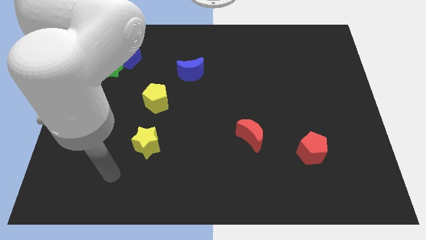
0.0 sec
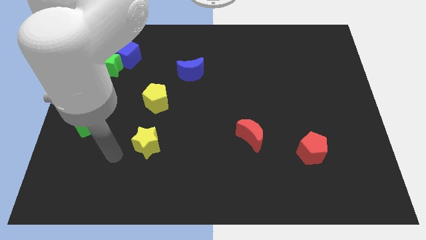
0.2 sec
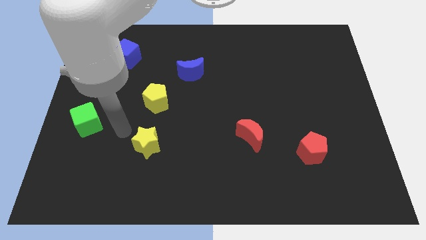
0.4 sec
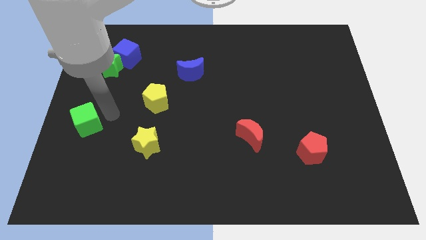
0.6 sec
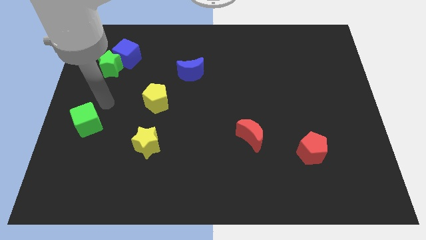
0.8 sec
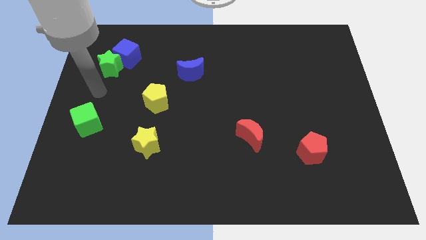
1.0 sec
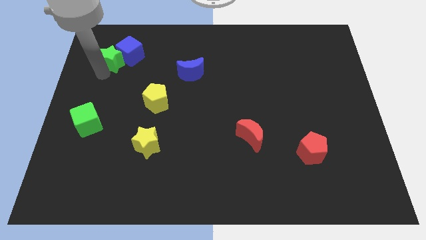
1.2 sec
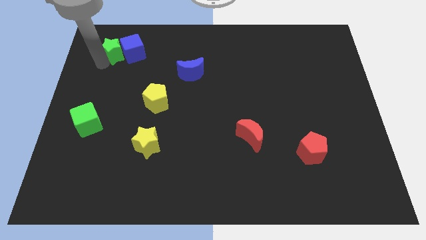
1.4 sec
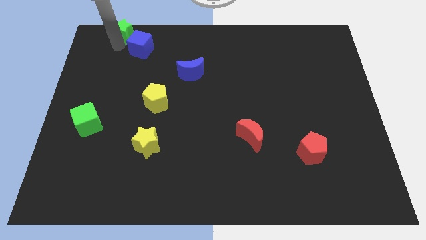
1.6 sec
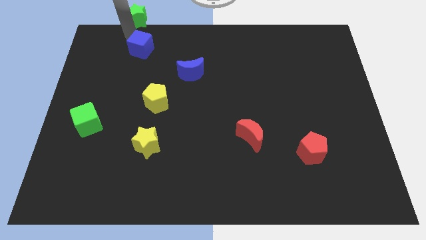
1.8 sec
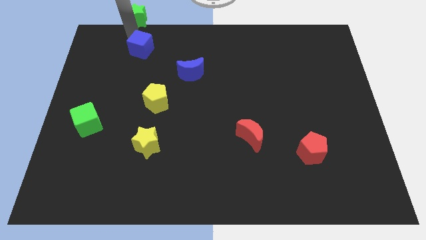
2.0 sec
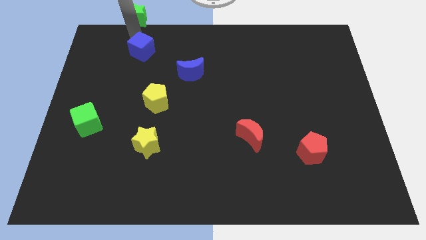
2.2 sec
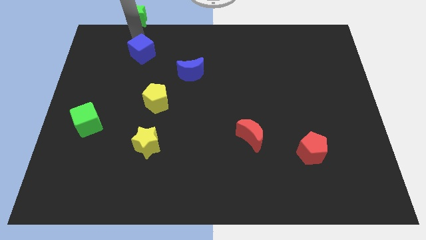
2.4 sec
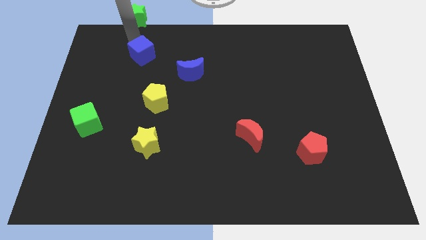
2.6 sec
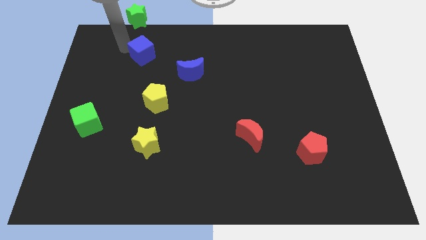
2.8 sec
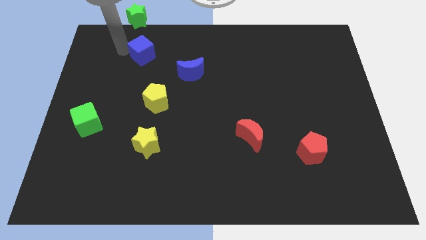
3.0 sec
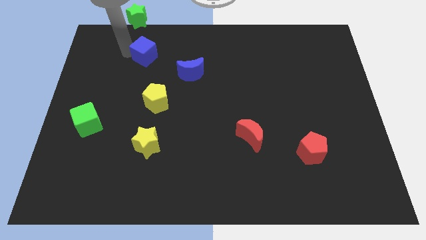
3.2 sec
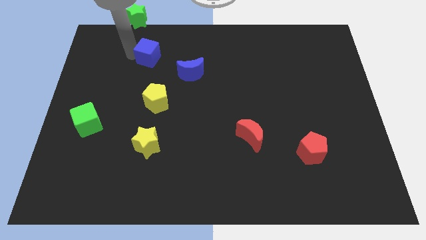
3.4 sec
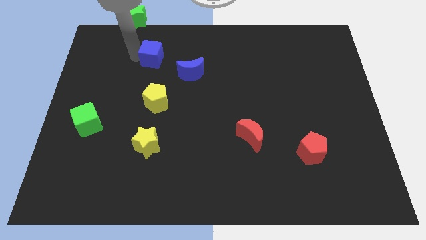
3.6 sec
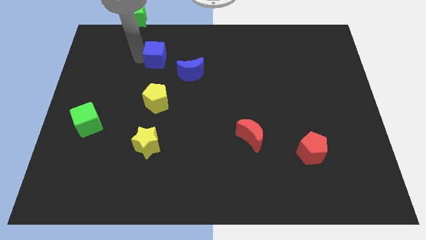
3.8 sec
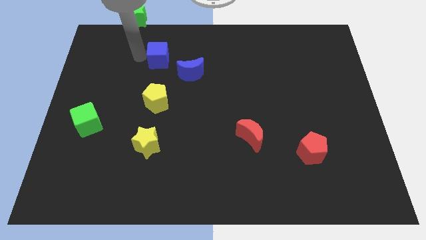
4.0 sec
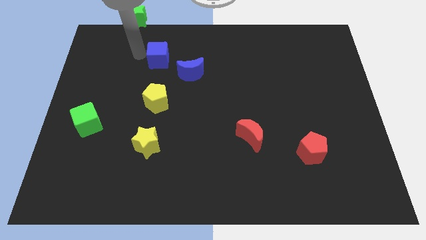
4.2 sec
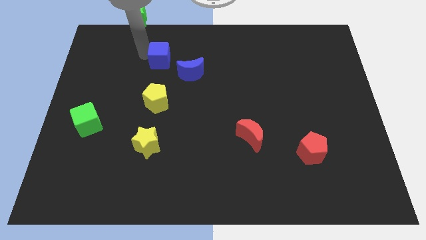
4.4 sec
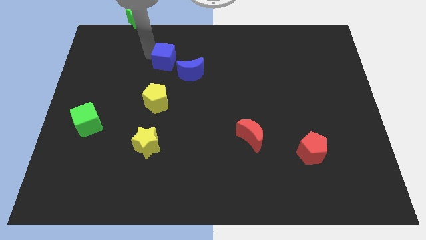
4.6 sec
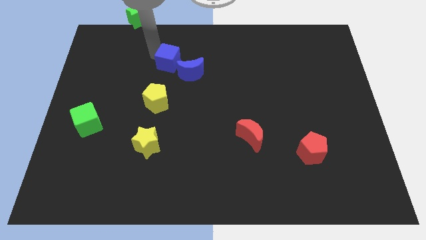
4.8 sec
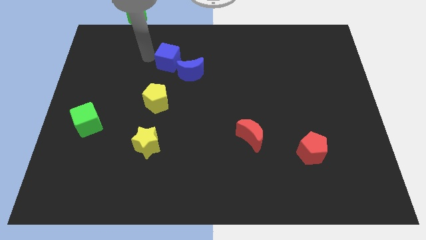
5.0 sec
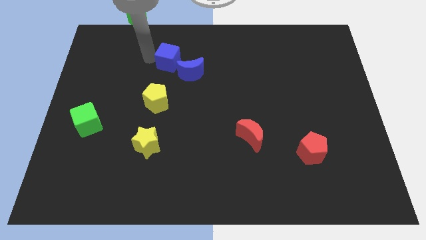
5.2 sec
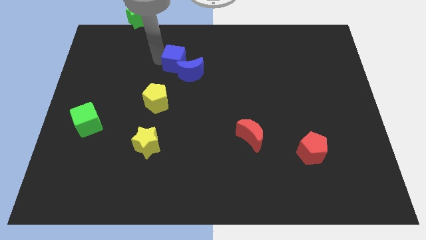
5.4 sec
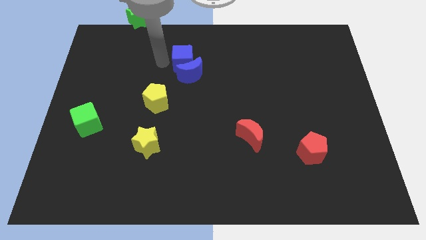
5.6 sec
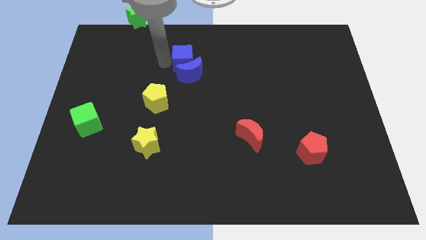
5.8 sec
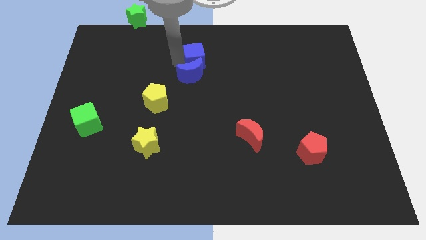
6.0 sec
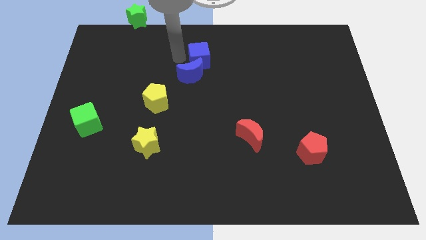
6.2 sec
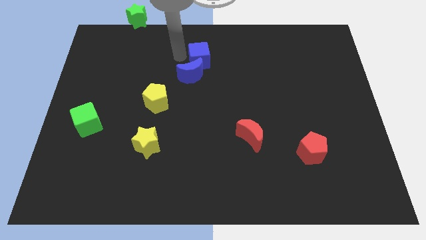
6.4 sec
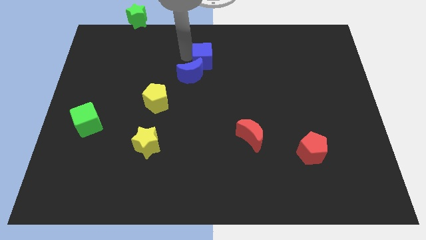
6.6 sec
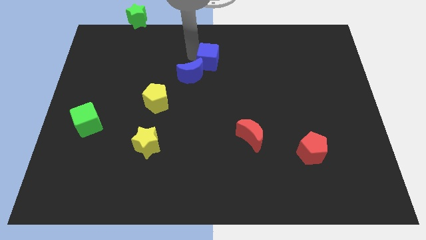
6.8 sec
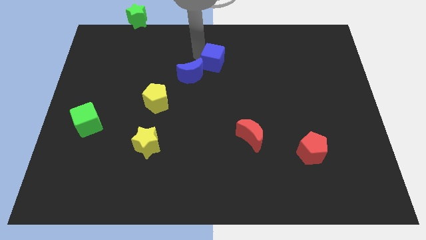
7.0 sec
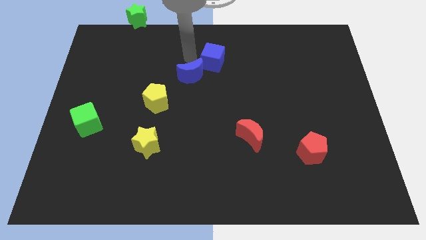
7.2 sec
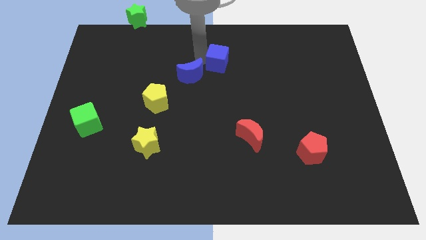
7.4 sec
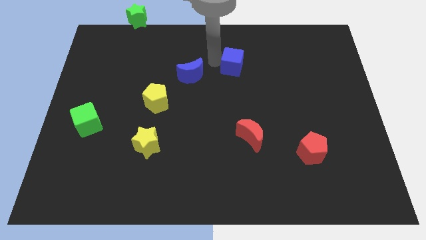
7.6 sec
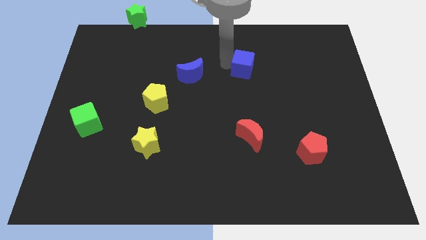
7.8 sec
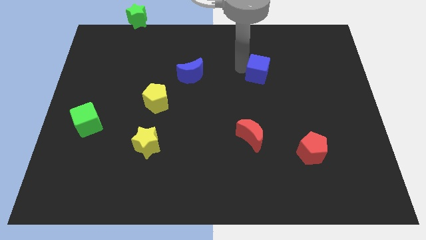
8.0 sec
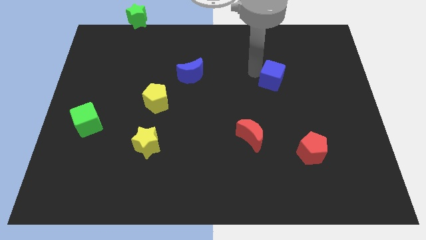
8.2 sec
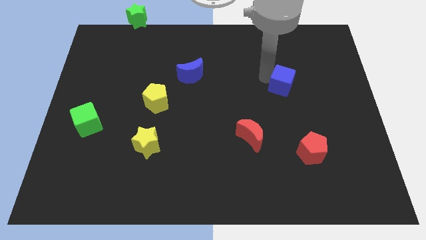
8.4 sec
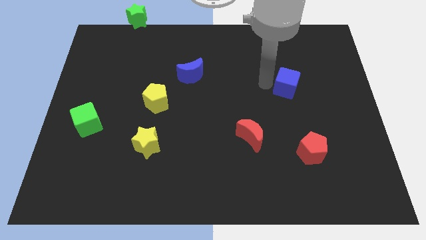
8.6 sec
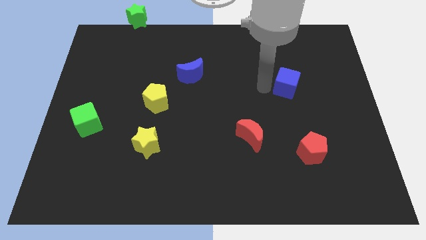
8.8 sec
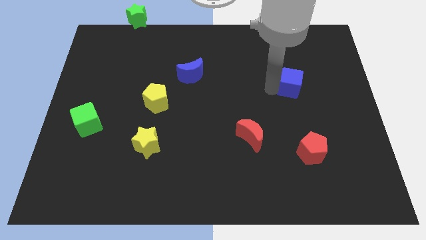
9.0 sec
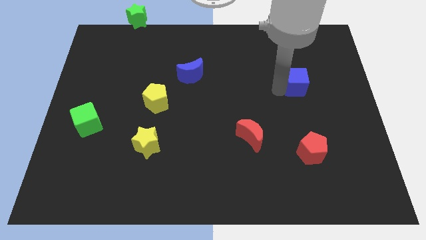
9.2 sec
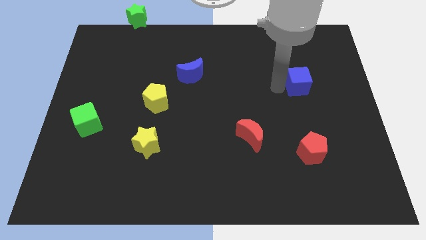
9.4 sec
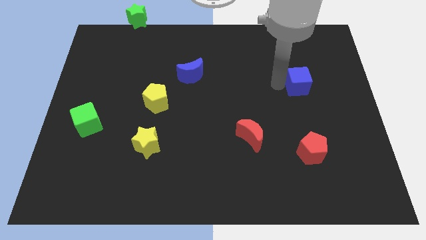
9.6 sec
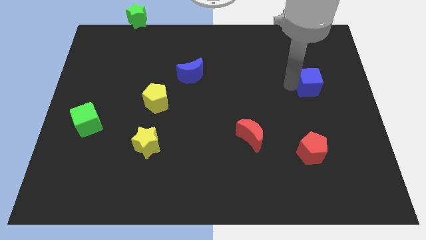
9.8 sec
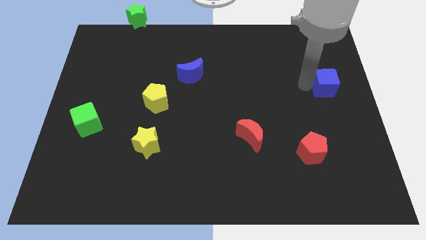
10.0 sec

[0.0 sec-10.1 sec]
push the blue cube to the center right

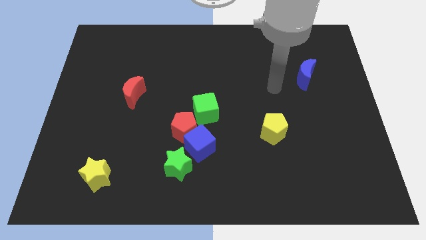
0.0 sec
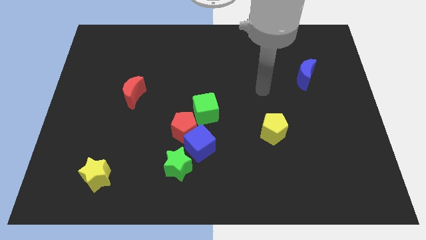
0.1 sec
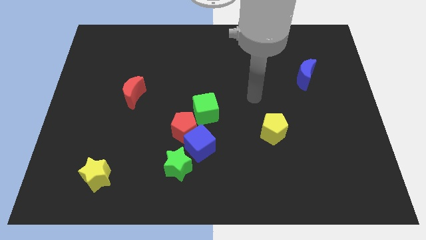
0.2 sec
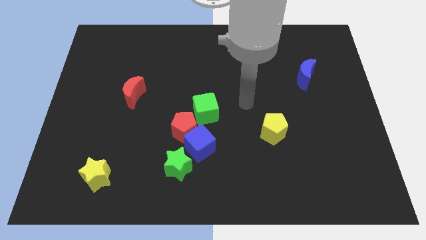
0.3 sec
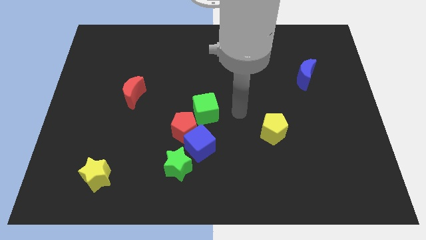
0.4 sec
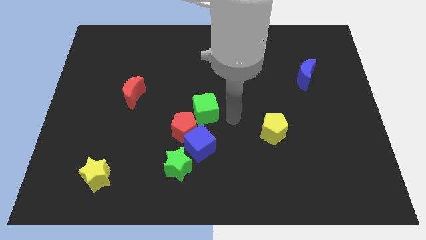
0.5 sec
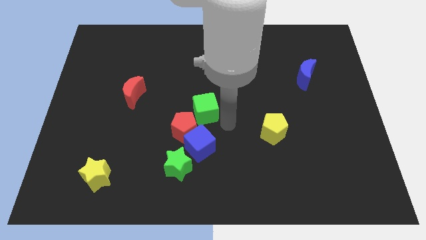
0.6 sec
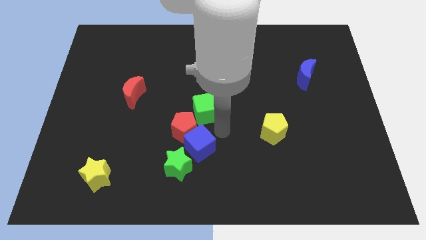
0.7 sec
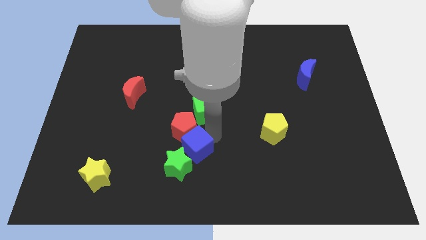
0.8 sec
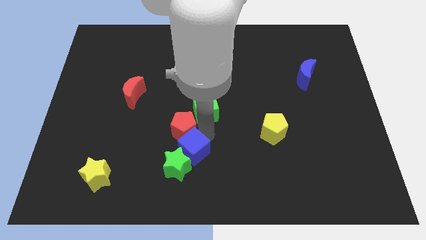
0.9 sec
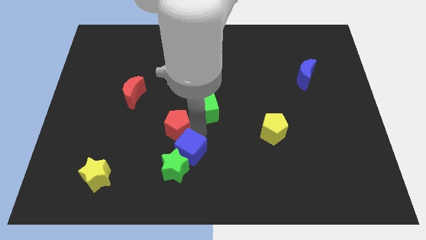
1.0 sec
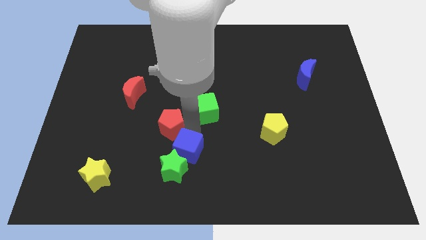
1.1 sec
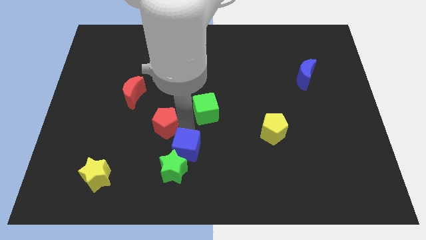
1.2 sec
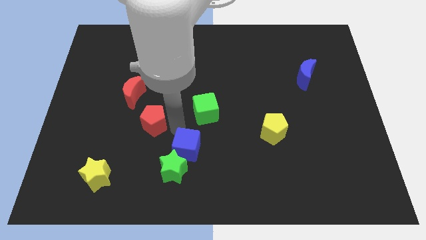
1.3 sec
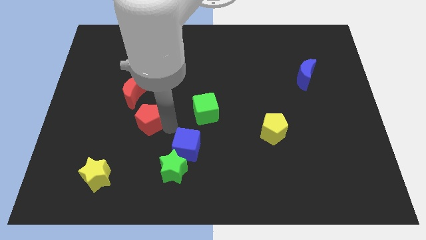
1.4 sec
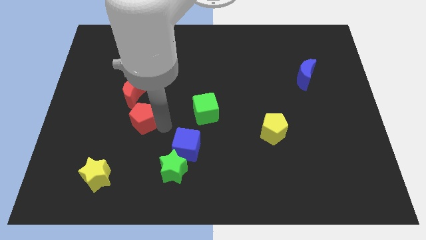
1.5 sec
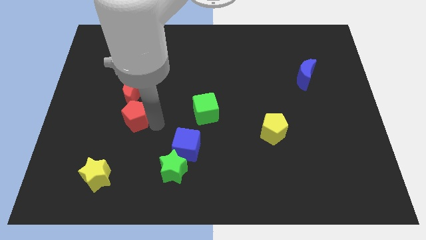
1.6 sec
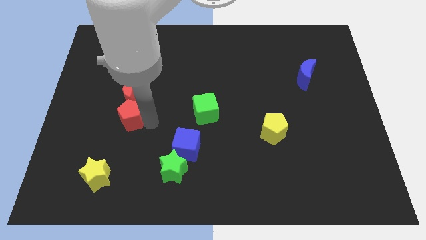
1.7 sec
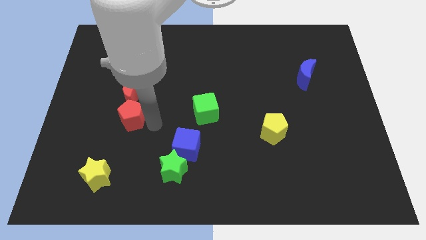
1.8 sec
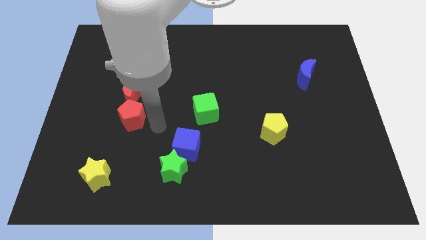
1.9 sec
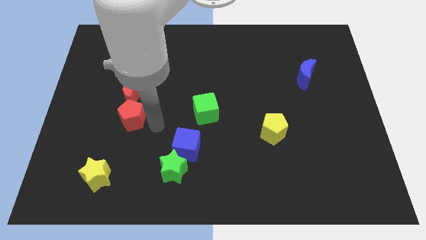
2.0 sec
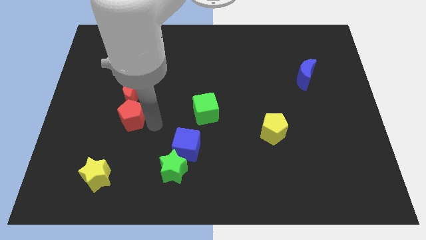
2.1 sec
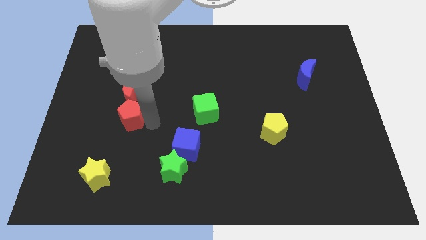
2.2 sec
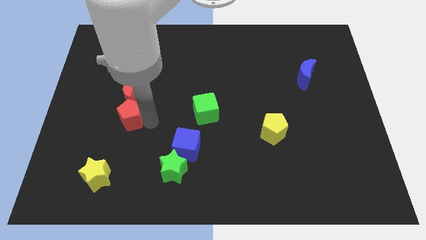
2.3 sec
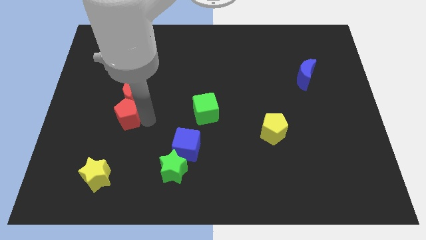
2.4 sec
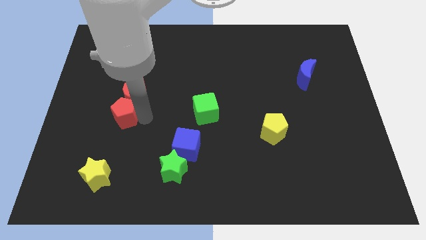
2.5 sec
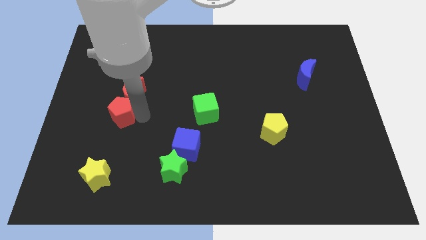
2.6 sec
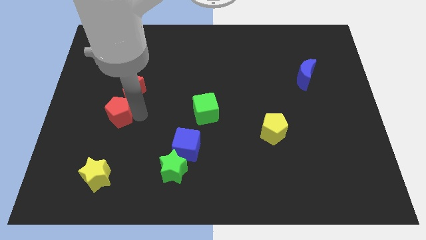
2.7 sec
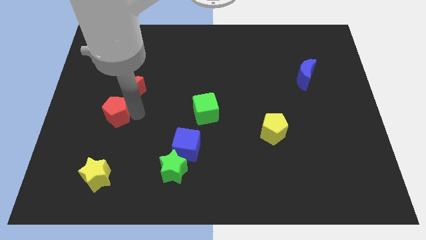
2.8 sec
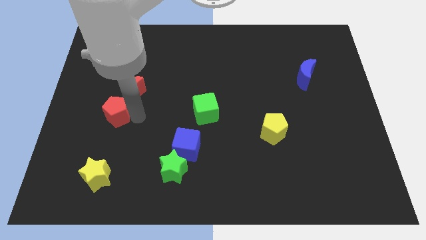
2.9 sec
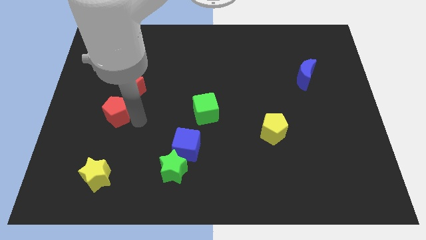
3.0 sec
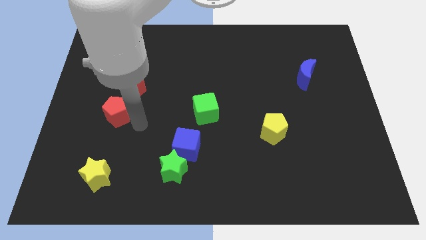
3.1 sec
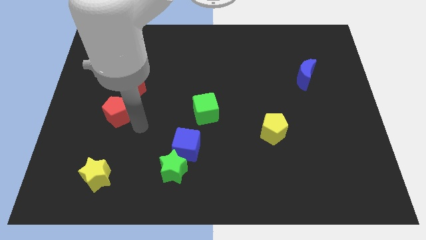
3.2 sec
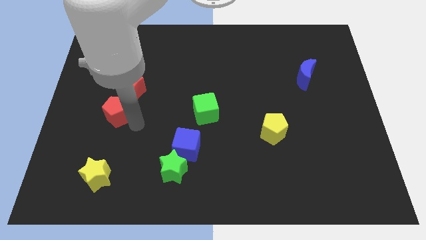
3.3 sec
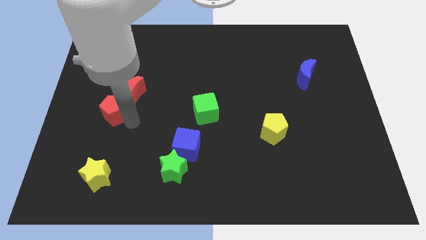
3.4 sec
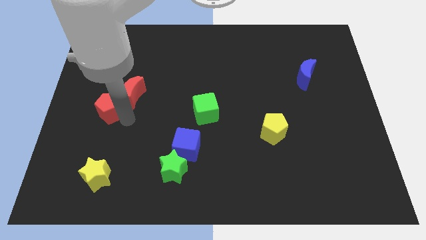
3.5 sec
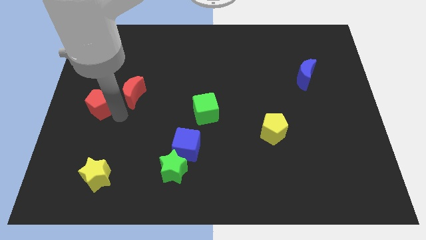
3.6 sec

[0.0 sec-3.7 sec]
push the red pentagon to the center left
